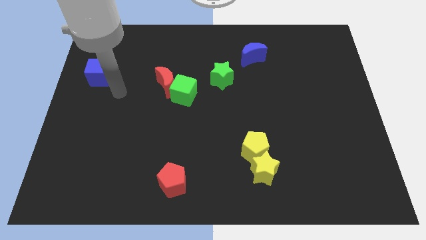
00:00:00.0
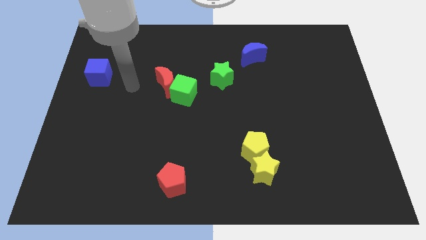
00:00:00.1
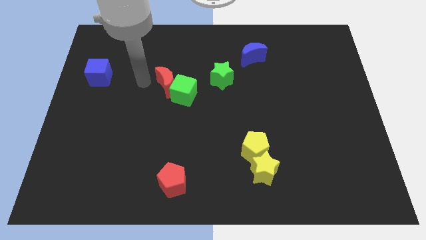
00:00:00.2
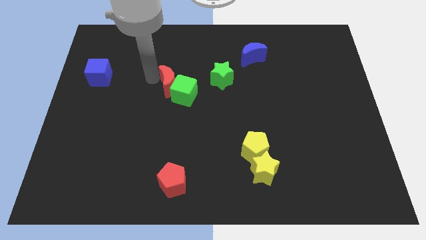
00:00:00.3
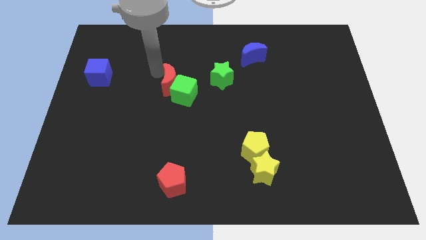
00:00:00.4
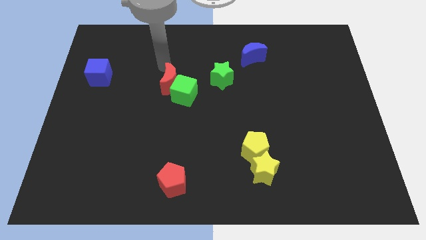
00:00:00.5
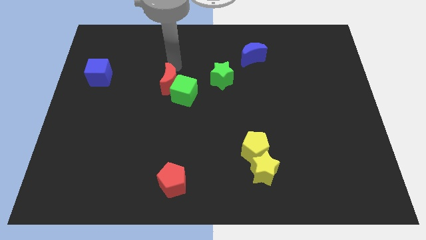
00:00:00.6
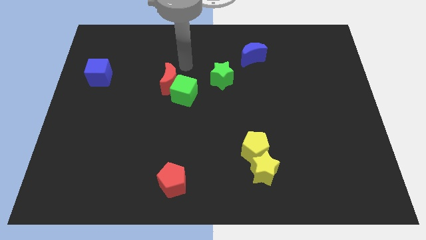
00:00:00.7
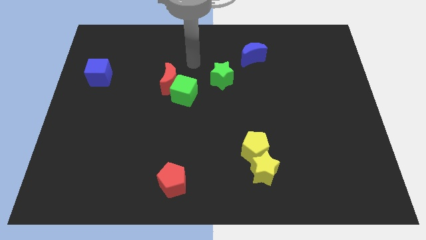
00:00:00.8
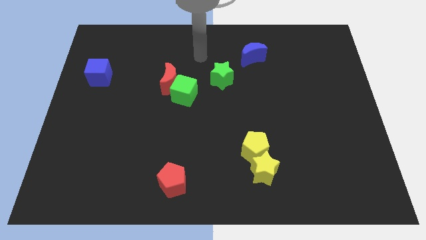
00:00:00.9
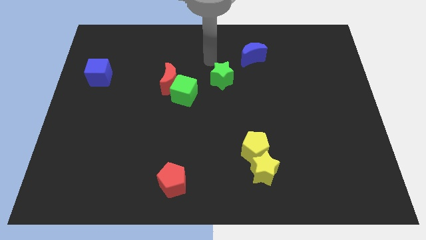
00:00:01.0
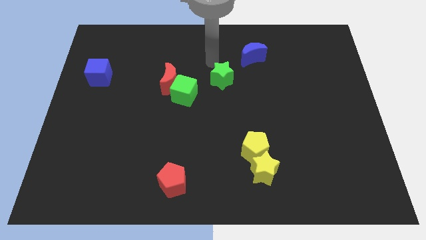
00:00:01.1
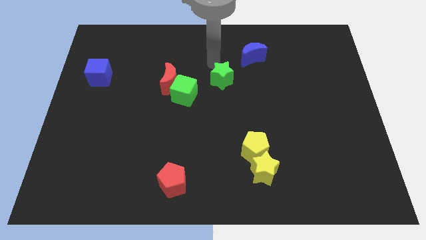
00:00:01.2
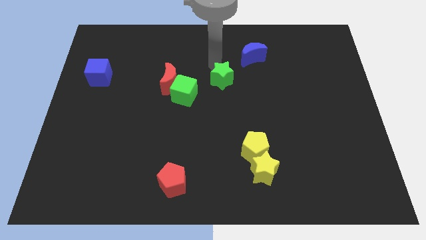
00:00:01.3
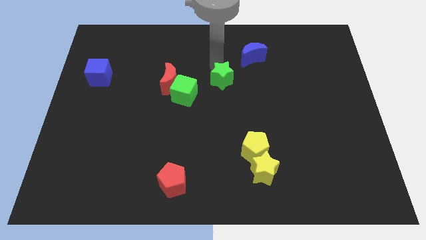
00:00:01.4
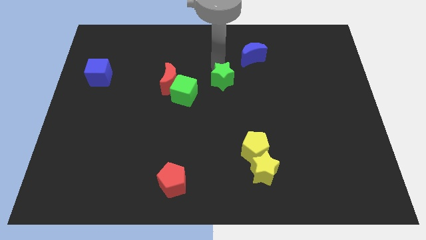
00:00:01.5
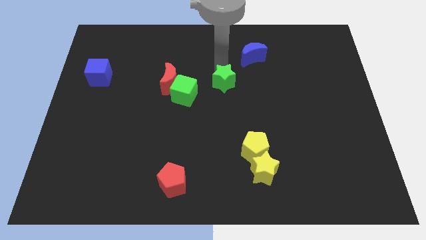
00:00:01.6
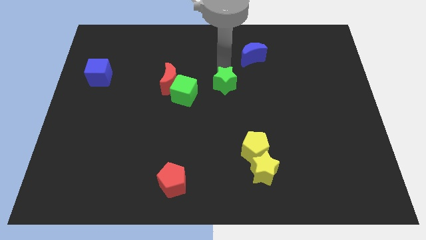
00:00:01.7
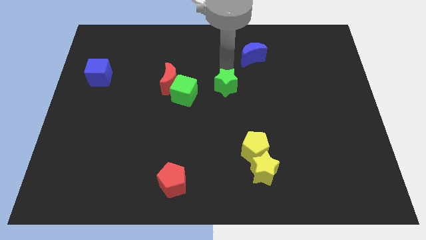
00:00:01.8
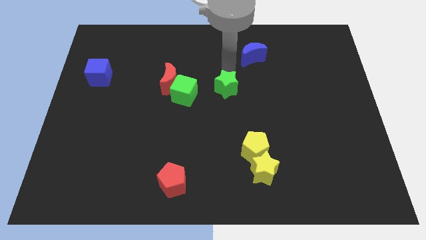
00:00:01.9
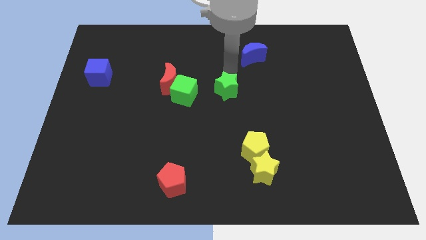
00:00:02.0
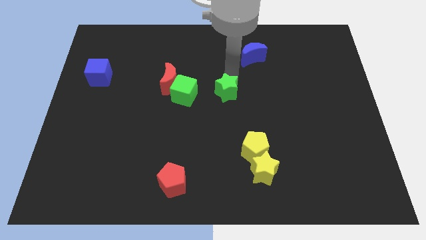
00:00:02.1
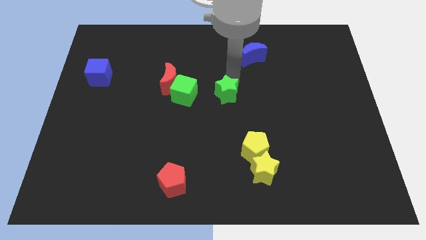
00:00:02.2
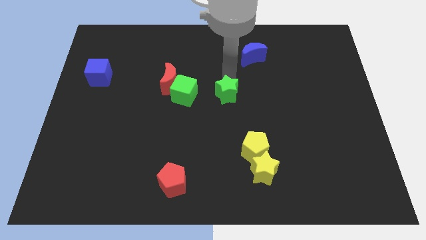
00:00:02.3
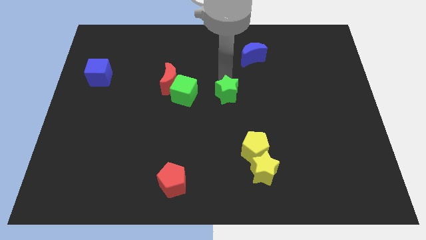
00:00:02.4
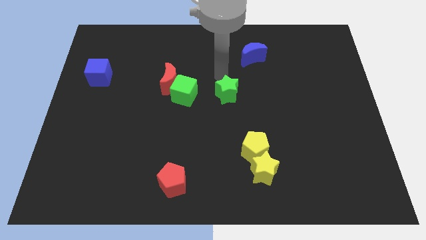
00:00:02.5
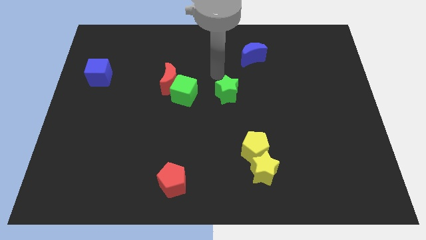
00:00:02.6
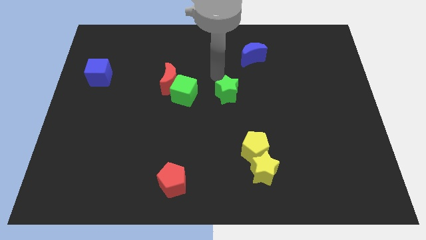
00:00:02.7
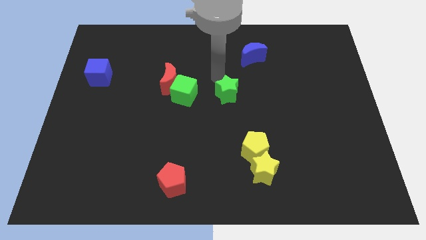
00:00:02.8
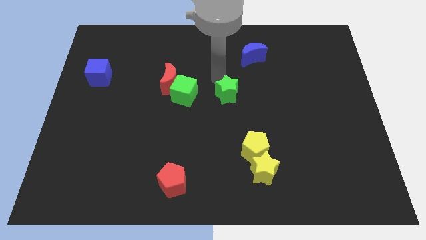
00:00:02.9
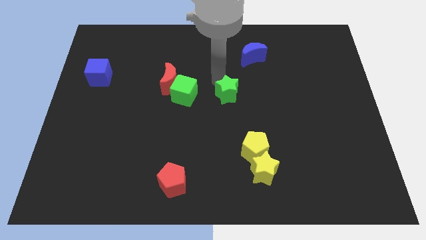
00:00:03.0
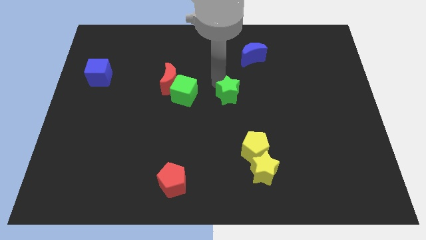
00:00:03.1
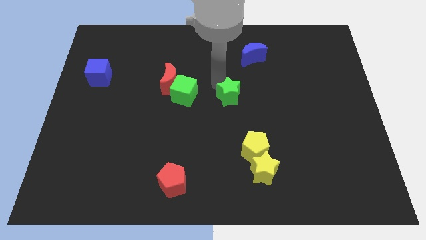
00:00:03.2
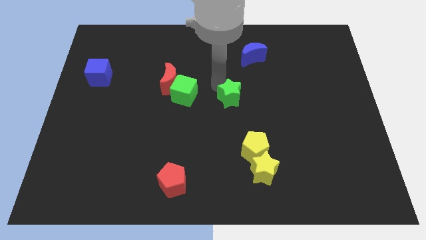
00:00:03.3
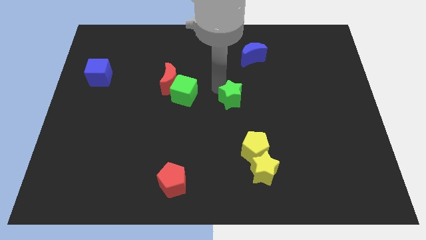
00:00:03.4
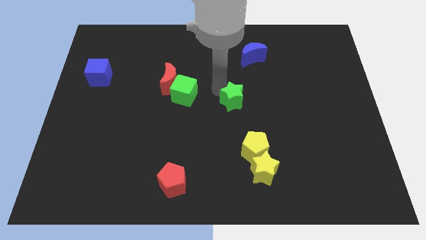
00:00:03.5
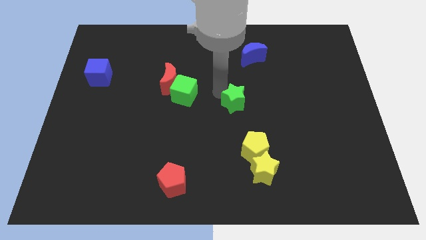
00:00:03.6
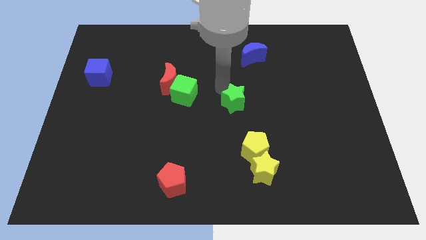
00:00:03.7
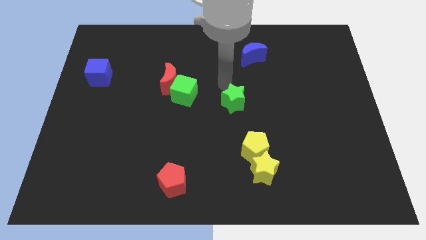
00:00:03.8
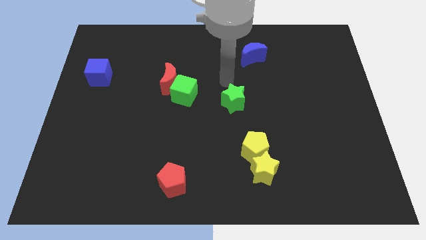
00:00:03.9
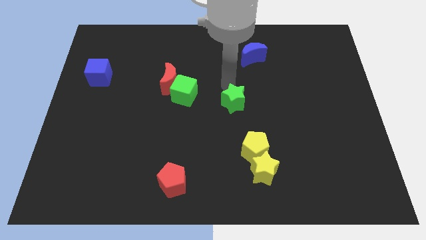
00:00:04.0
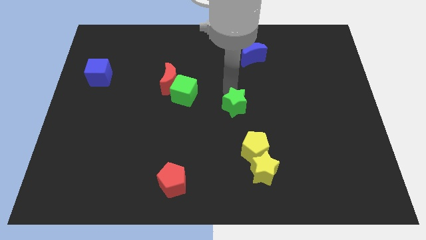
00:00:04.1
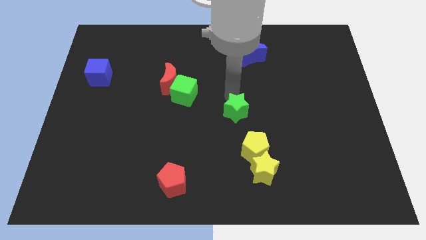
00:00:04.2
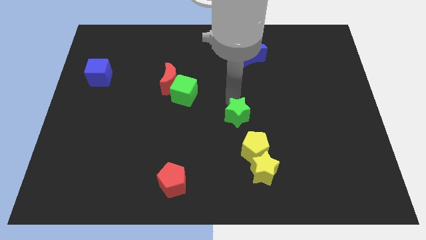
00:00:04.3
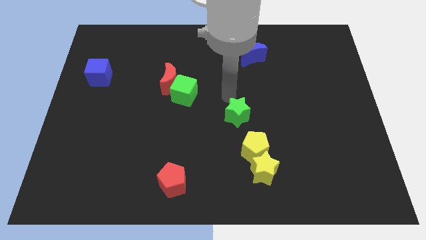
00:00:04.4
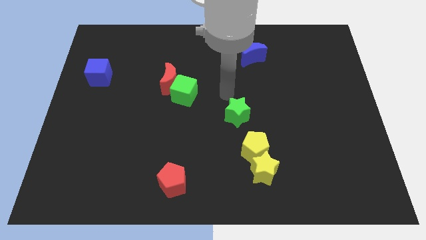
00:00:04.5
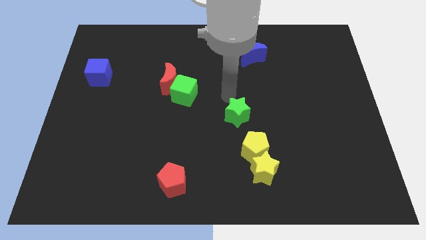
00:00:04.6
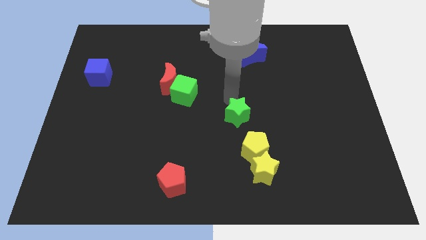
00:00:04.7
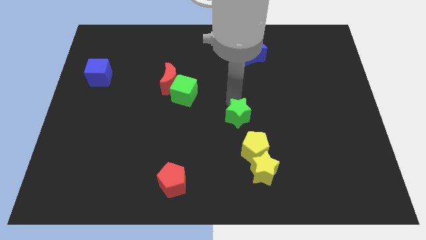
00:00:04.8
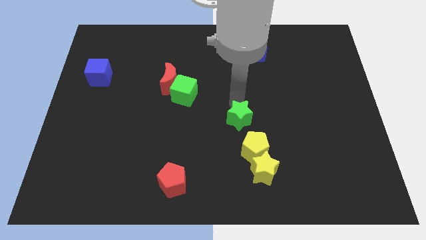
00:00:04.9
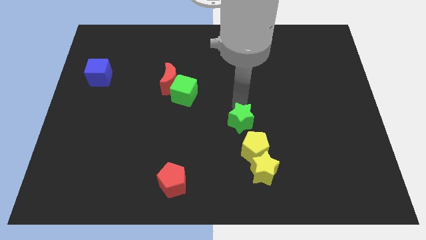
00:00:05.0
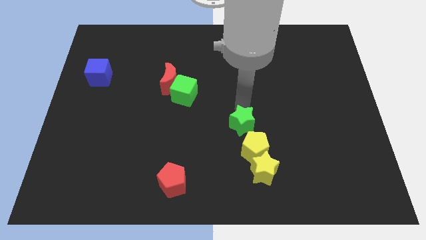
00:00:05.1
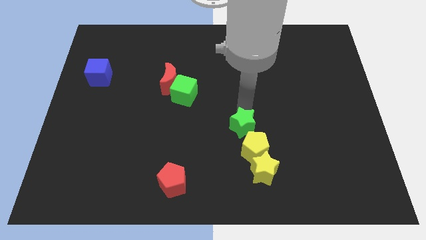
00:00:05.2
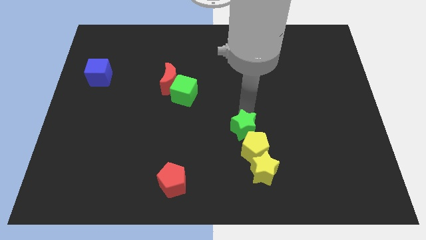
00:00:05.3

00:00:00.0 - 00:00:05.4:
slide the green star next to the yellow pentagon

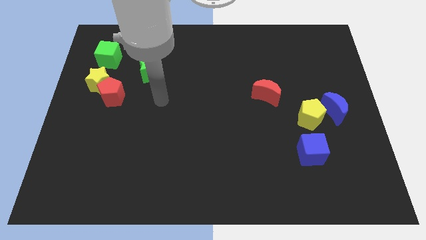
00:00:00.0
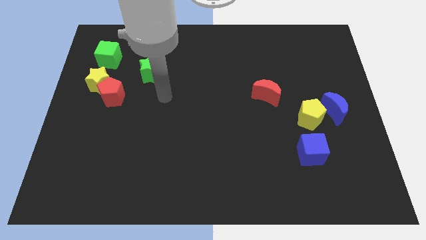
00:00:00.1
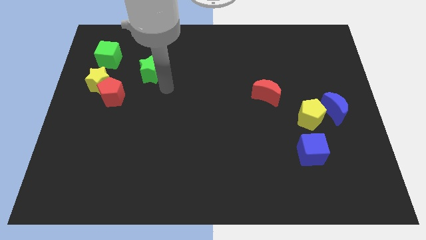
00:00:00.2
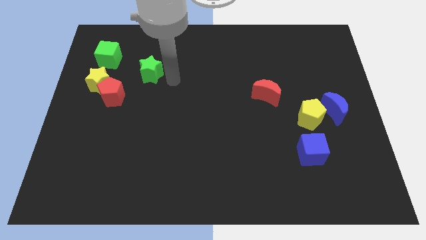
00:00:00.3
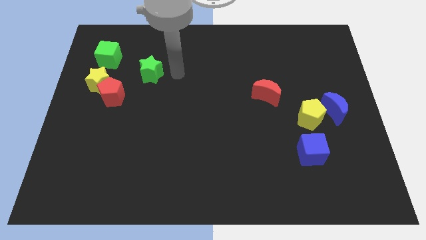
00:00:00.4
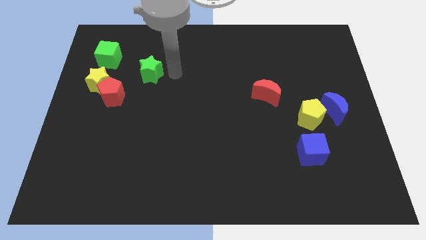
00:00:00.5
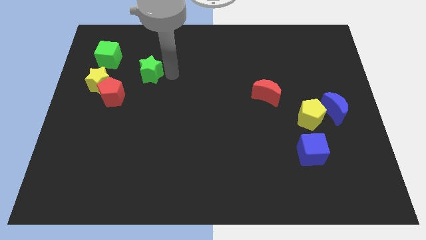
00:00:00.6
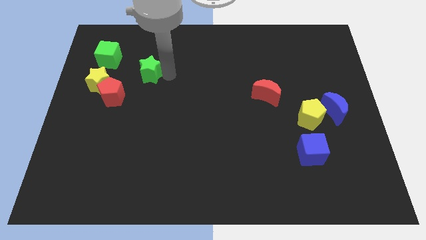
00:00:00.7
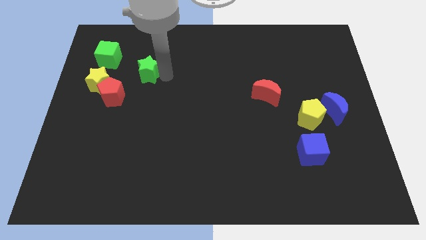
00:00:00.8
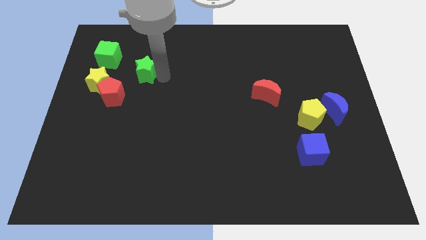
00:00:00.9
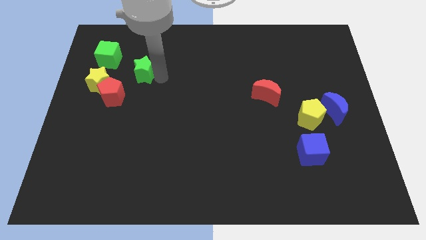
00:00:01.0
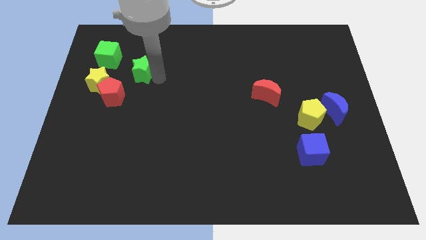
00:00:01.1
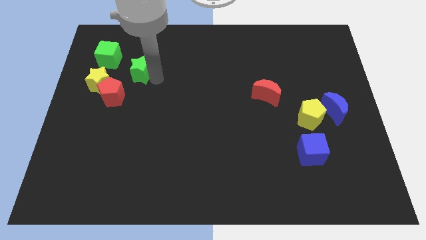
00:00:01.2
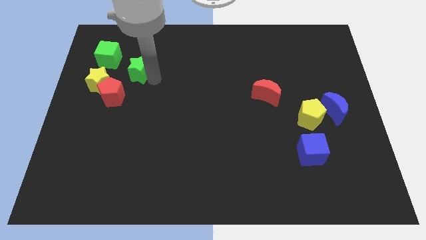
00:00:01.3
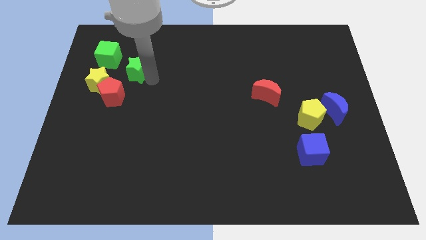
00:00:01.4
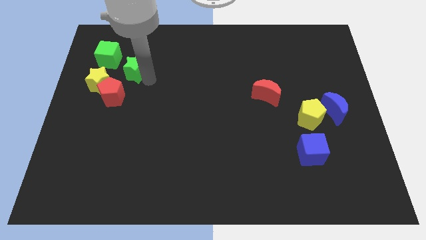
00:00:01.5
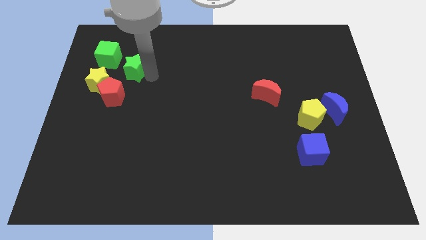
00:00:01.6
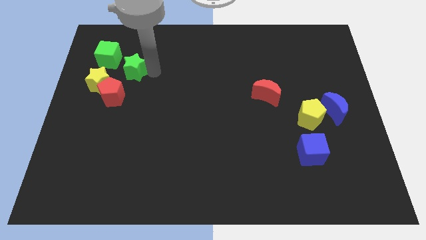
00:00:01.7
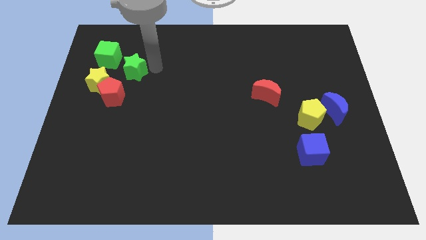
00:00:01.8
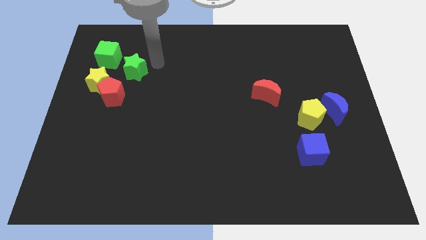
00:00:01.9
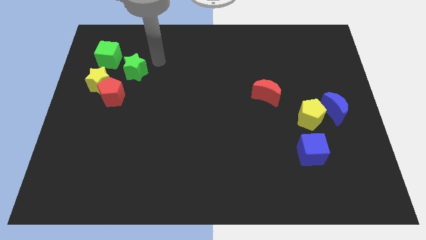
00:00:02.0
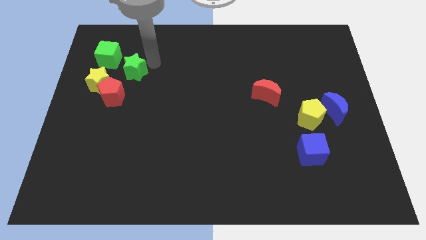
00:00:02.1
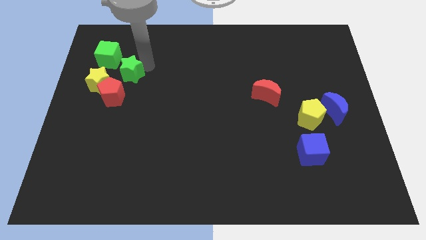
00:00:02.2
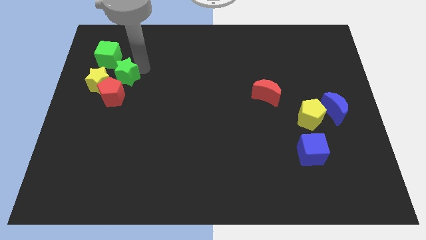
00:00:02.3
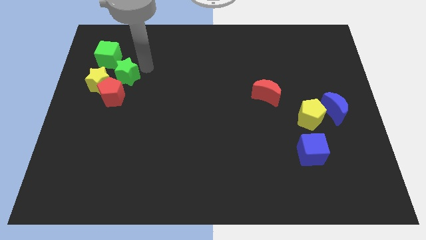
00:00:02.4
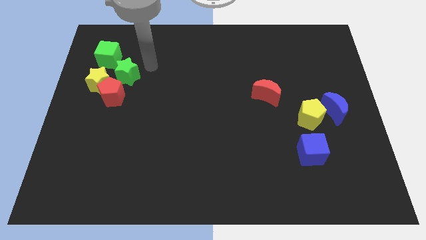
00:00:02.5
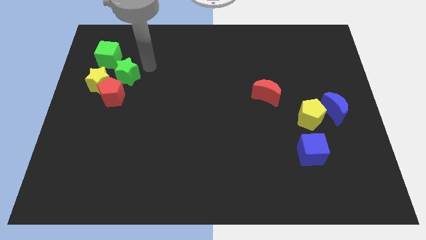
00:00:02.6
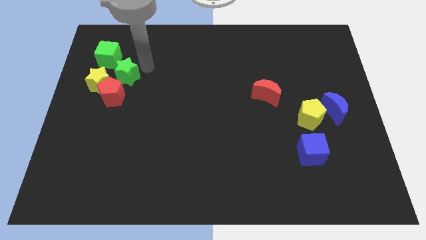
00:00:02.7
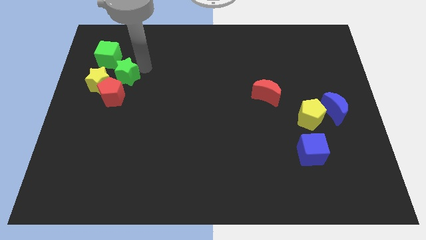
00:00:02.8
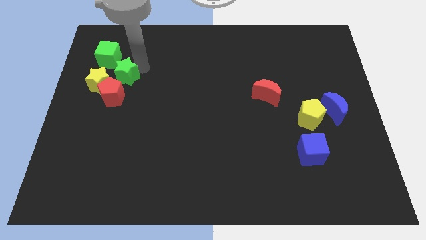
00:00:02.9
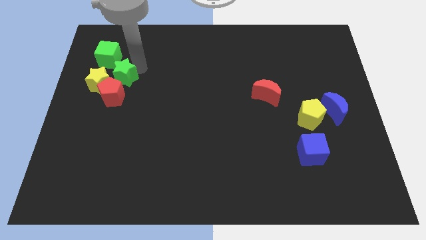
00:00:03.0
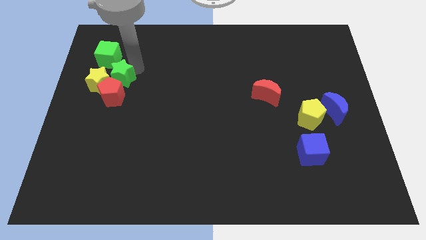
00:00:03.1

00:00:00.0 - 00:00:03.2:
slide the green star next to the yellow star
